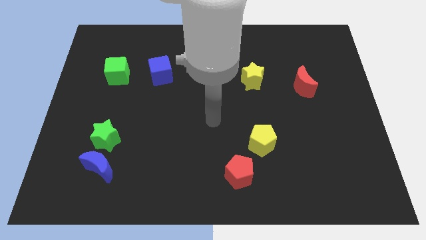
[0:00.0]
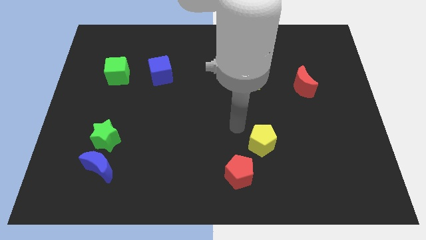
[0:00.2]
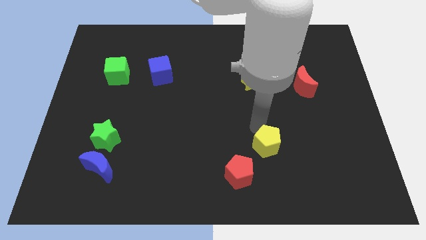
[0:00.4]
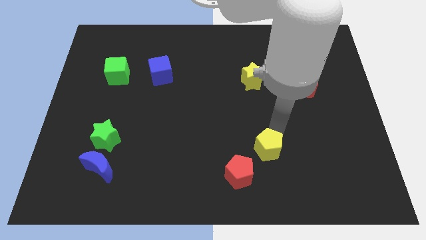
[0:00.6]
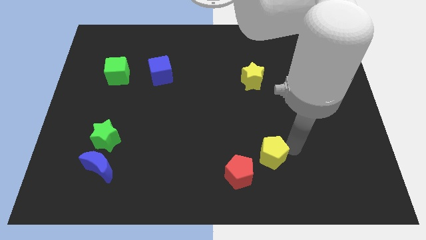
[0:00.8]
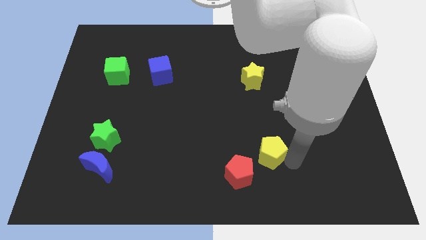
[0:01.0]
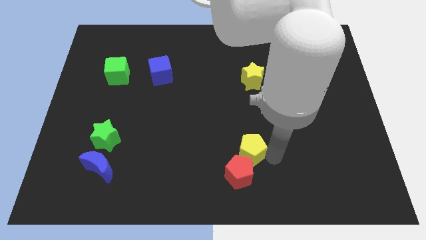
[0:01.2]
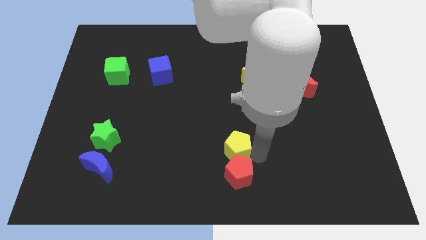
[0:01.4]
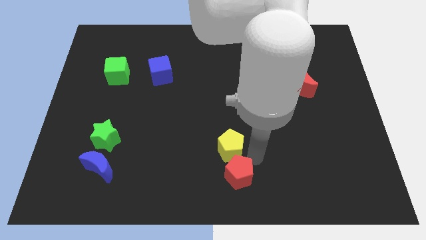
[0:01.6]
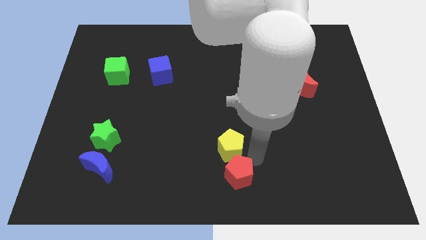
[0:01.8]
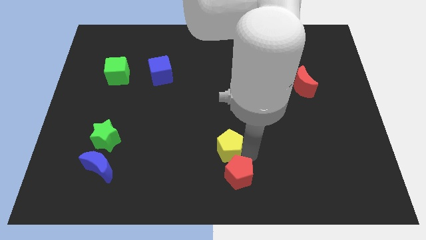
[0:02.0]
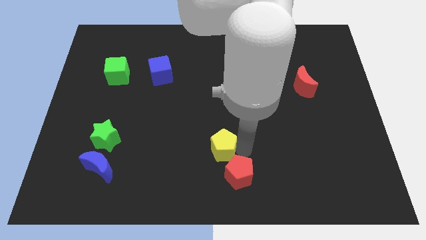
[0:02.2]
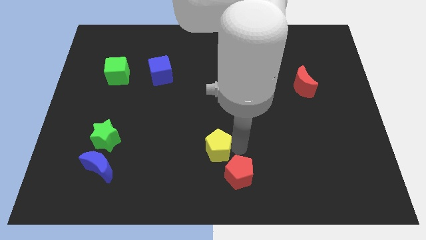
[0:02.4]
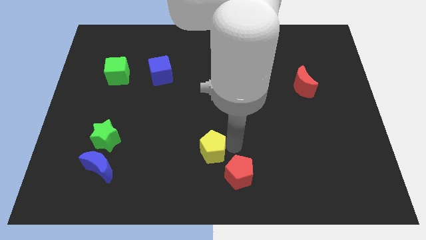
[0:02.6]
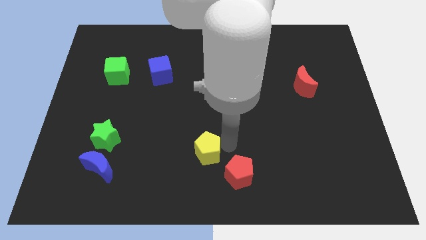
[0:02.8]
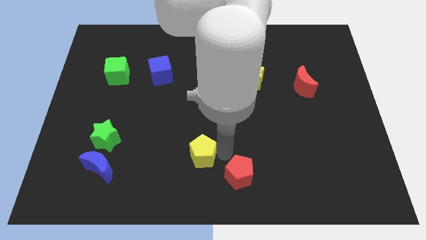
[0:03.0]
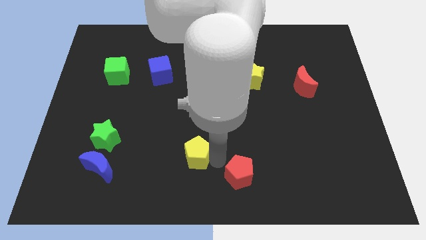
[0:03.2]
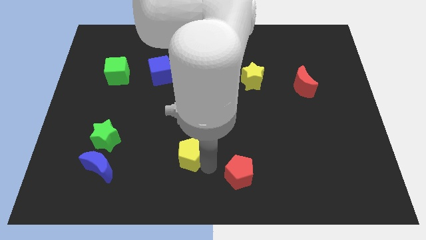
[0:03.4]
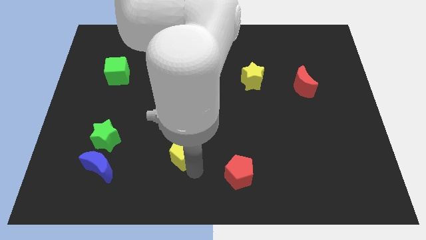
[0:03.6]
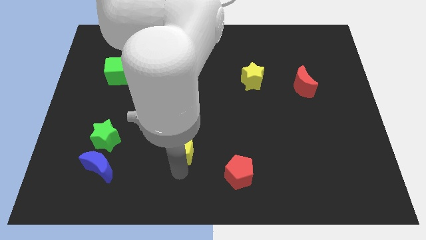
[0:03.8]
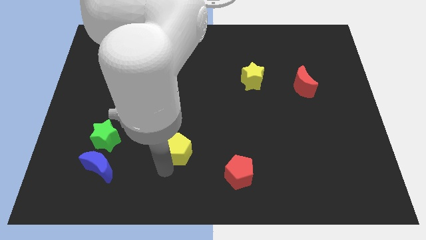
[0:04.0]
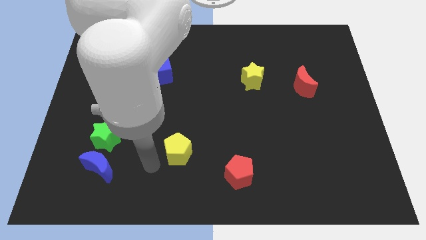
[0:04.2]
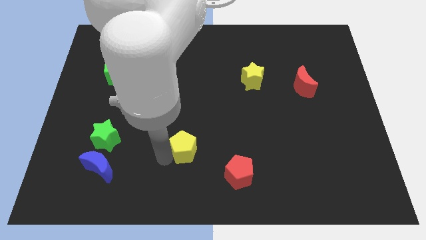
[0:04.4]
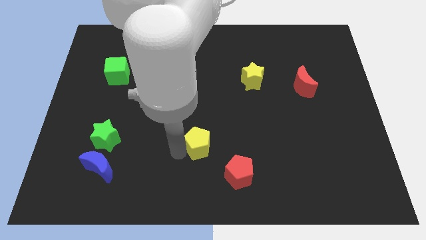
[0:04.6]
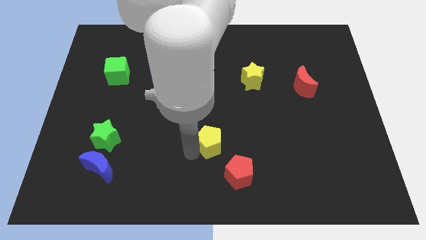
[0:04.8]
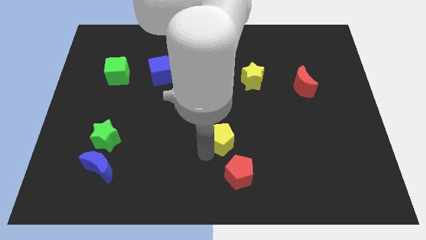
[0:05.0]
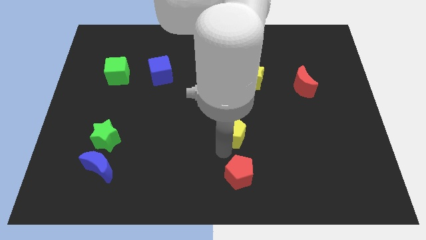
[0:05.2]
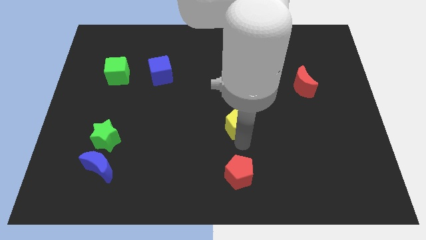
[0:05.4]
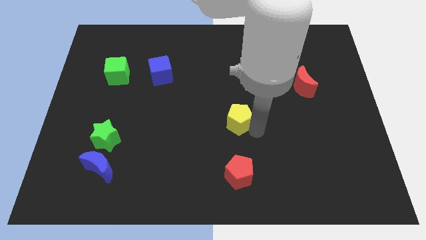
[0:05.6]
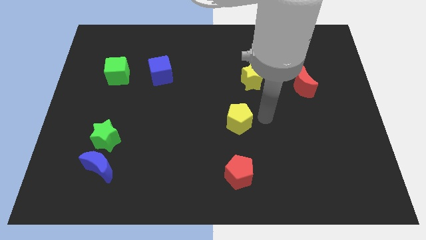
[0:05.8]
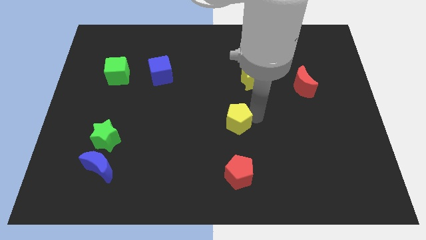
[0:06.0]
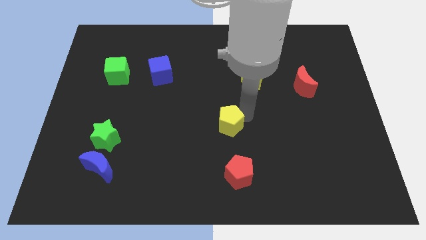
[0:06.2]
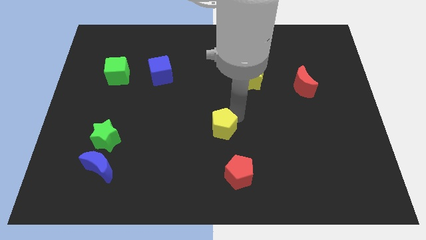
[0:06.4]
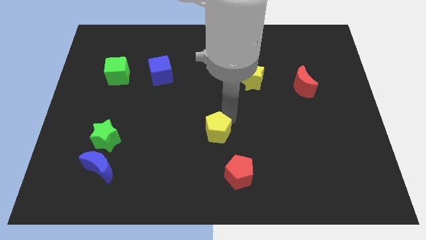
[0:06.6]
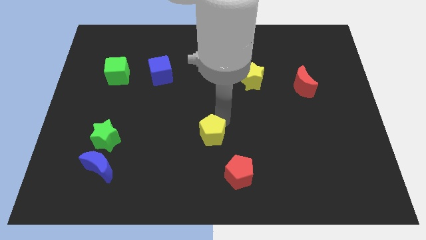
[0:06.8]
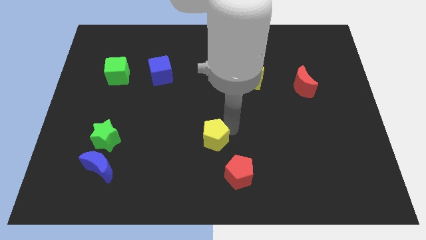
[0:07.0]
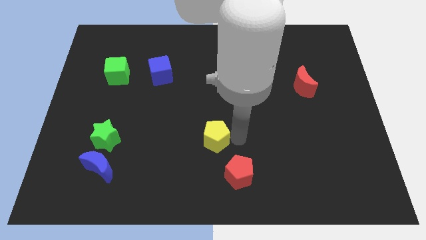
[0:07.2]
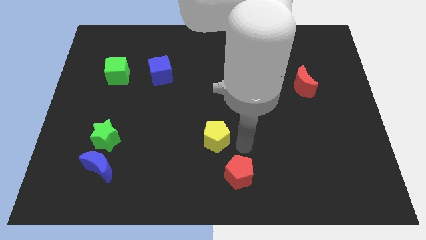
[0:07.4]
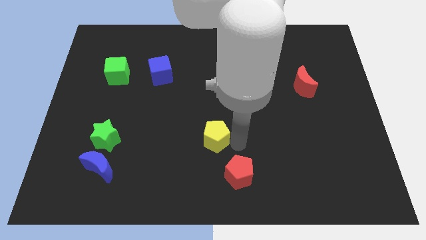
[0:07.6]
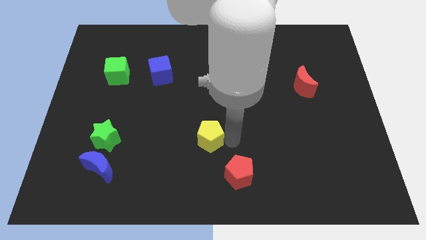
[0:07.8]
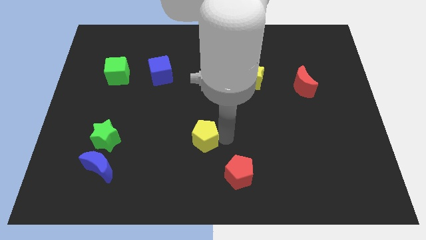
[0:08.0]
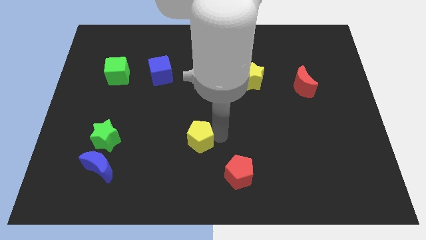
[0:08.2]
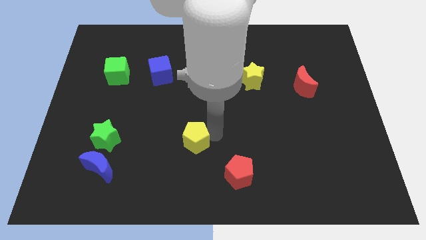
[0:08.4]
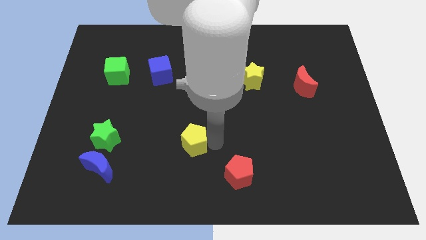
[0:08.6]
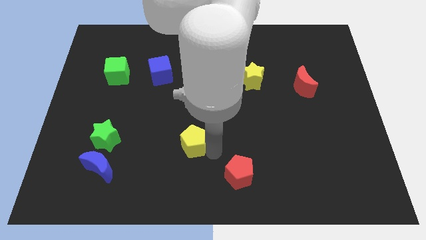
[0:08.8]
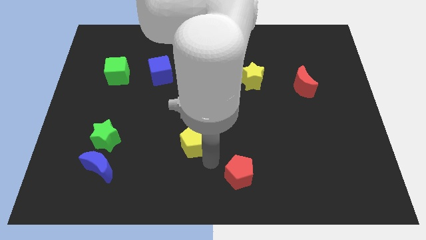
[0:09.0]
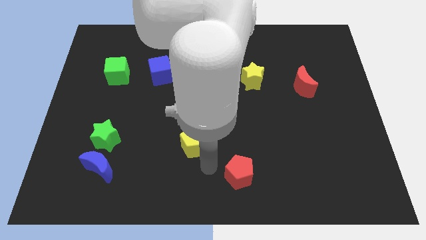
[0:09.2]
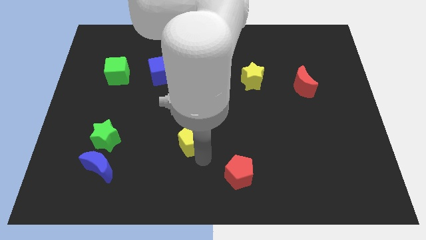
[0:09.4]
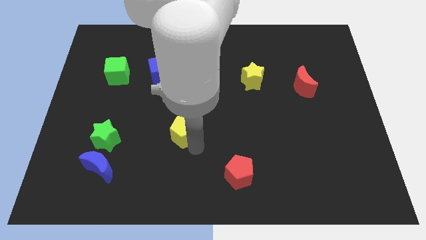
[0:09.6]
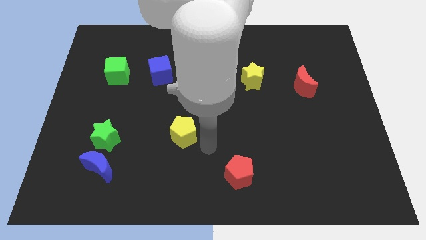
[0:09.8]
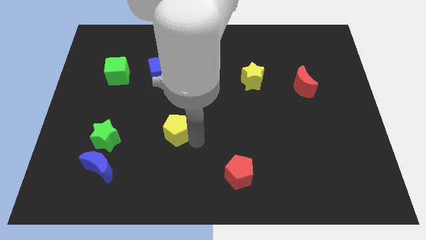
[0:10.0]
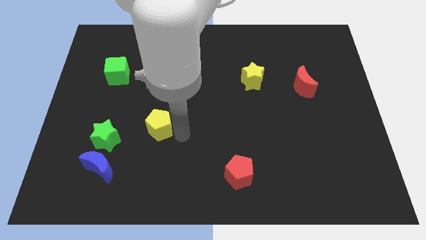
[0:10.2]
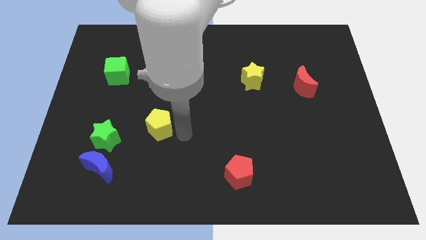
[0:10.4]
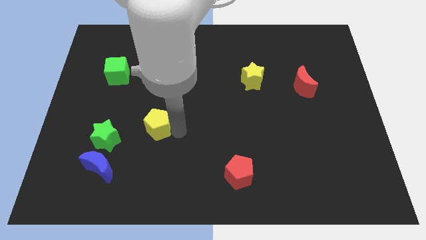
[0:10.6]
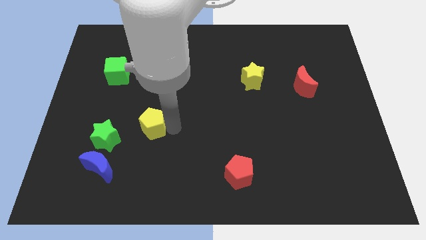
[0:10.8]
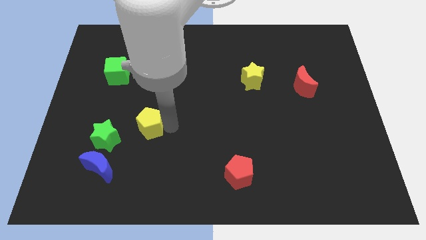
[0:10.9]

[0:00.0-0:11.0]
put the yellow pentagon diagonally up and to the right of the green star

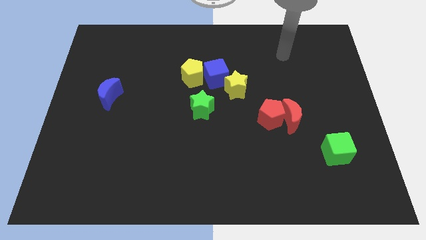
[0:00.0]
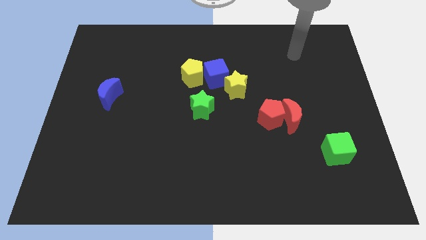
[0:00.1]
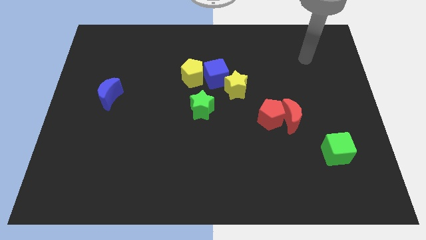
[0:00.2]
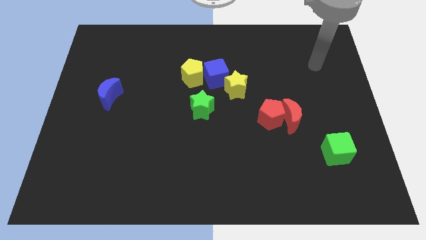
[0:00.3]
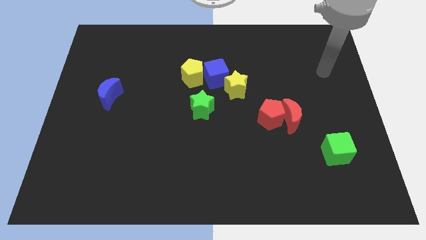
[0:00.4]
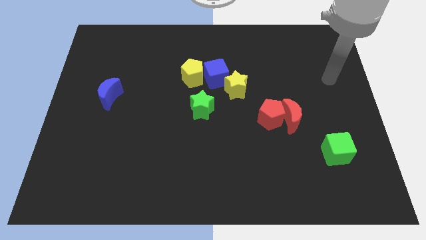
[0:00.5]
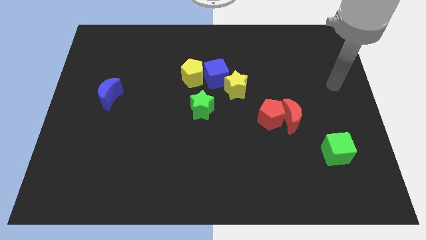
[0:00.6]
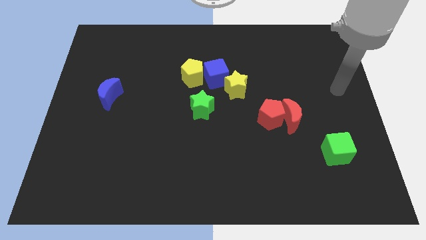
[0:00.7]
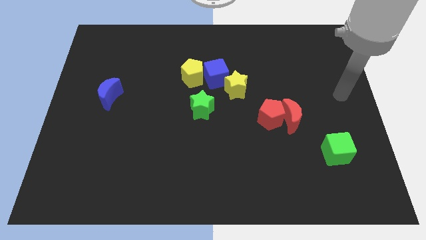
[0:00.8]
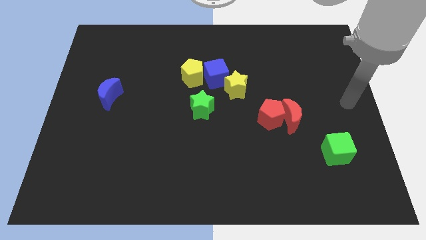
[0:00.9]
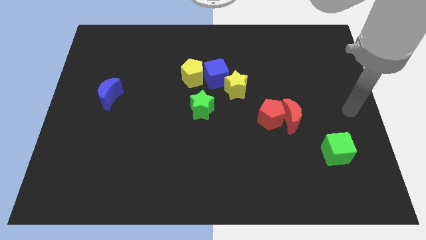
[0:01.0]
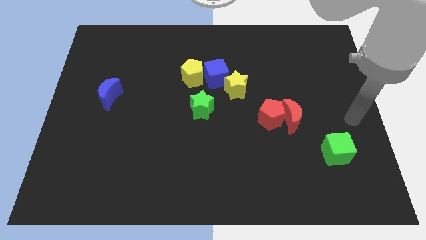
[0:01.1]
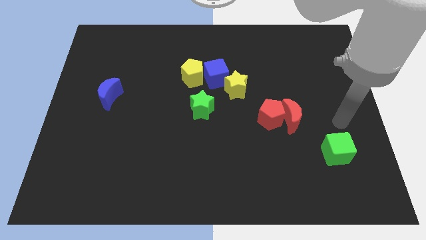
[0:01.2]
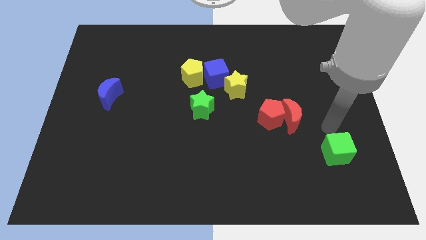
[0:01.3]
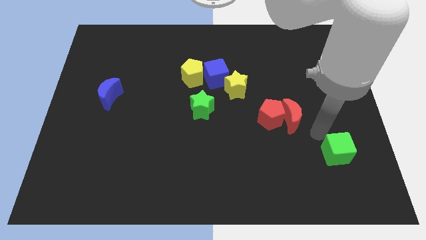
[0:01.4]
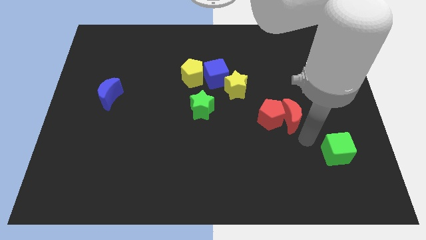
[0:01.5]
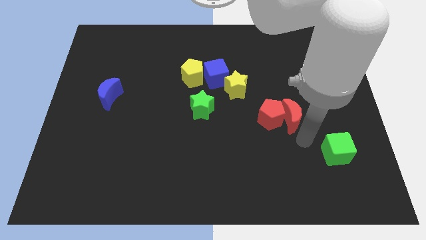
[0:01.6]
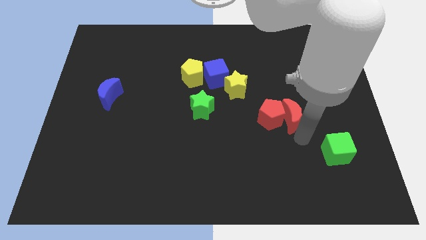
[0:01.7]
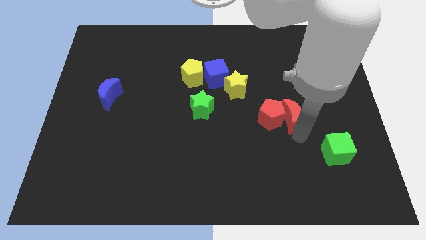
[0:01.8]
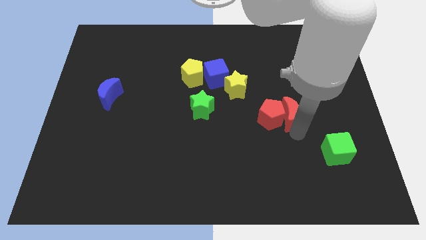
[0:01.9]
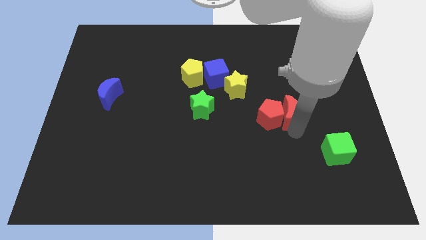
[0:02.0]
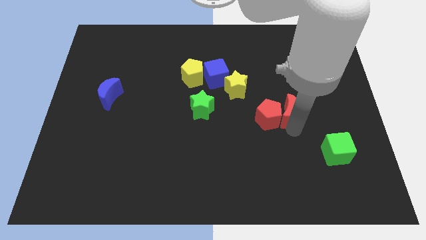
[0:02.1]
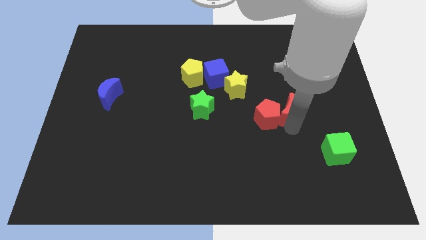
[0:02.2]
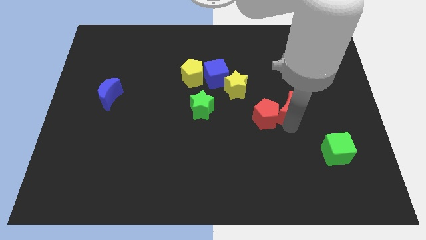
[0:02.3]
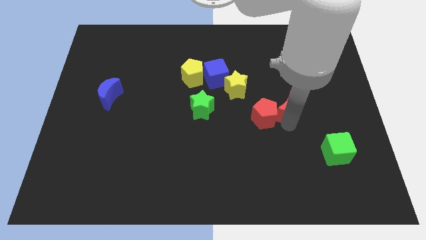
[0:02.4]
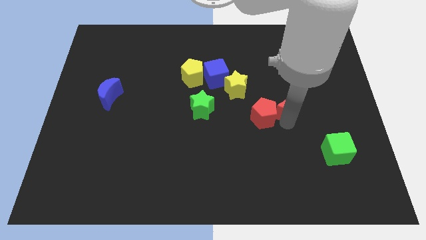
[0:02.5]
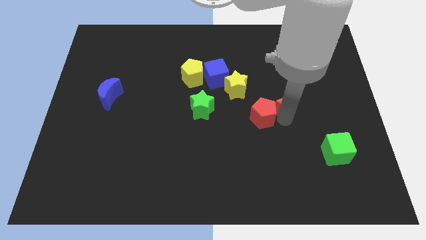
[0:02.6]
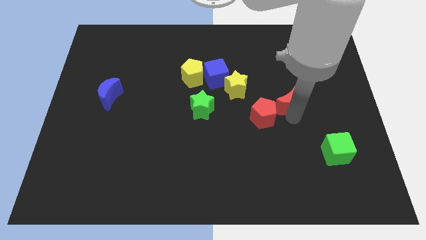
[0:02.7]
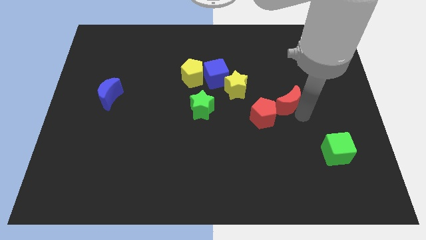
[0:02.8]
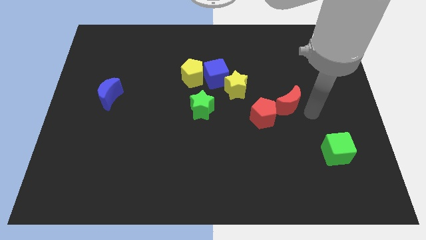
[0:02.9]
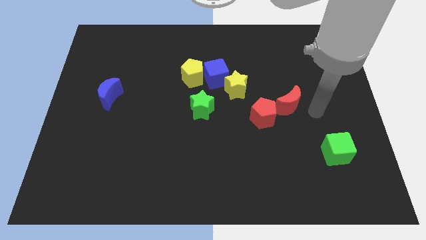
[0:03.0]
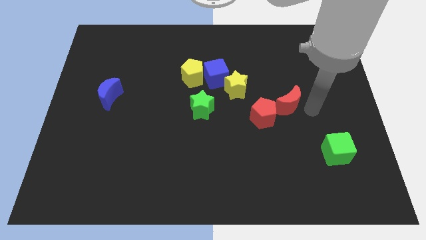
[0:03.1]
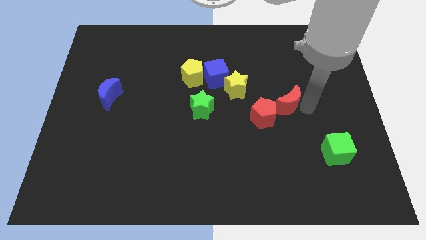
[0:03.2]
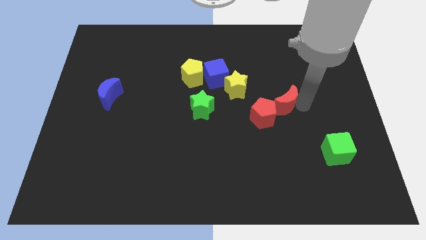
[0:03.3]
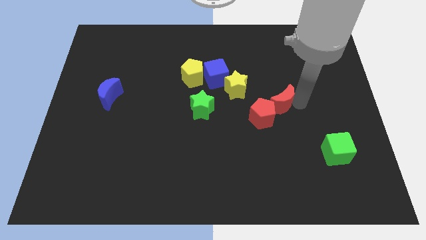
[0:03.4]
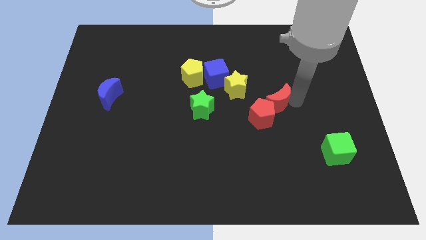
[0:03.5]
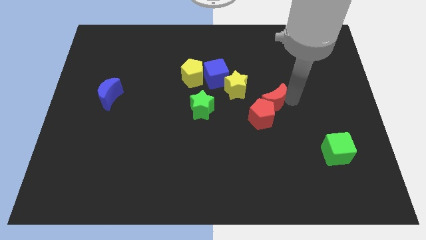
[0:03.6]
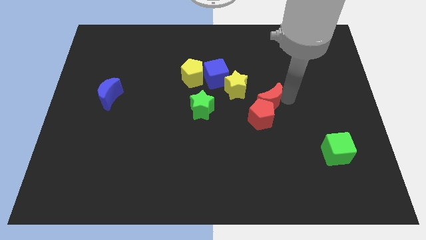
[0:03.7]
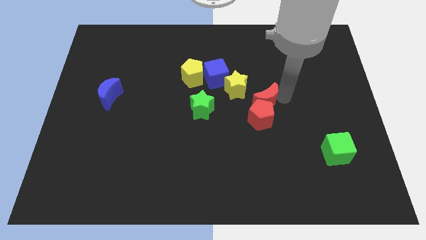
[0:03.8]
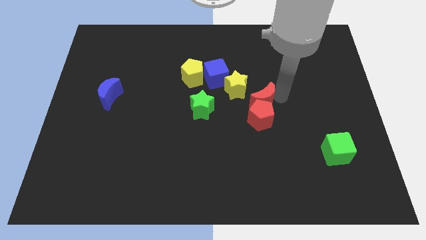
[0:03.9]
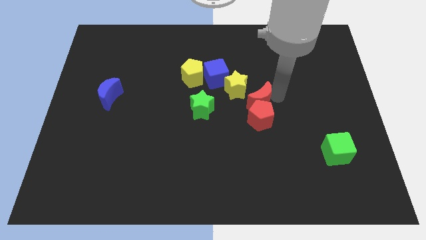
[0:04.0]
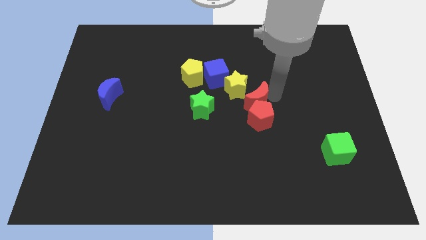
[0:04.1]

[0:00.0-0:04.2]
put the red moon to the bottom right side of the blue cube
